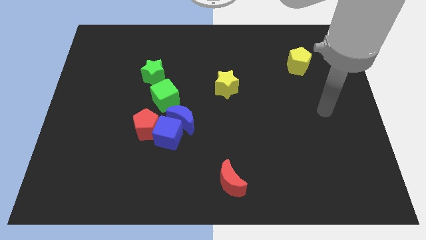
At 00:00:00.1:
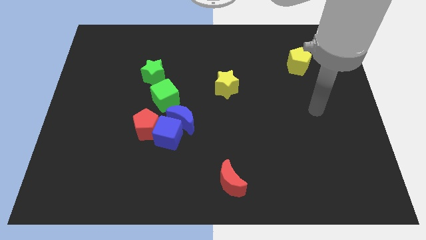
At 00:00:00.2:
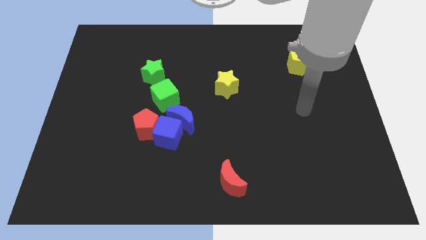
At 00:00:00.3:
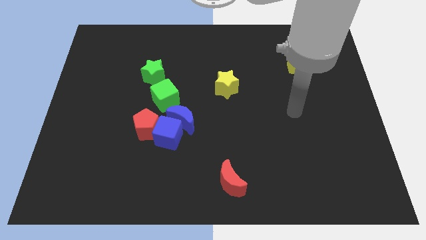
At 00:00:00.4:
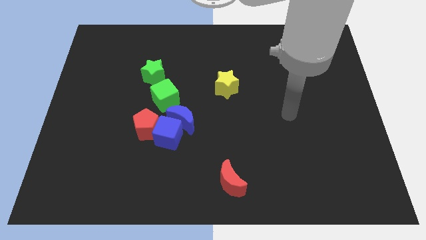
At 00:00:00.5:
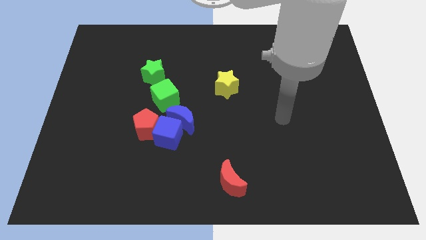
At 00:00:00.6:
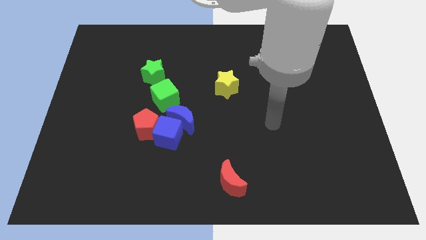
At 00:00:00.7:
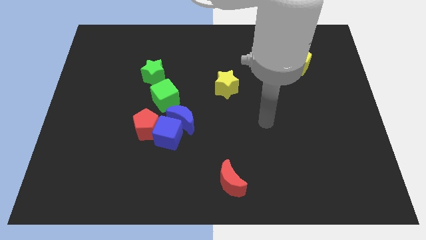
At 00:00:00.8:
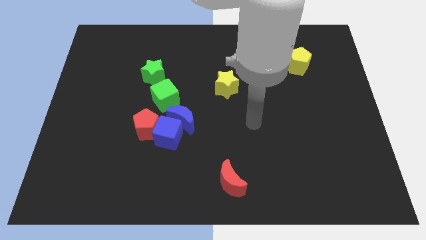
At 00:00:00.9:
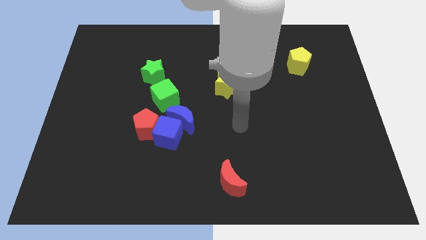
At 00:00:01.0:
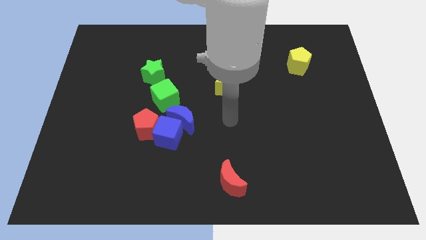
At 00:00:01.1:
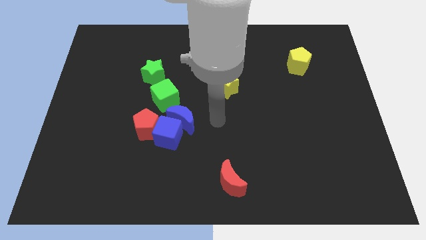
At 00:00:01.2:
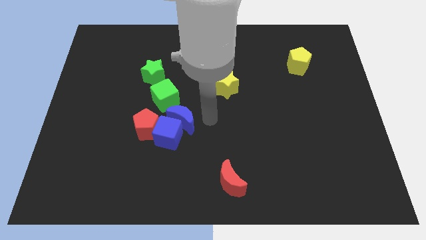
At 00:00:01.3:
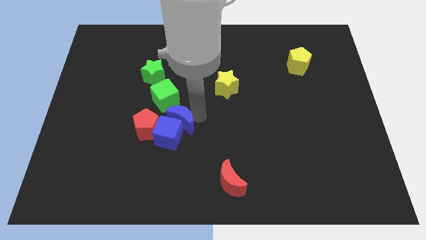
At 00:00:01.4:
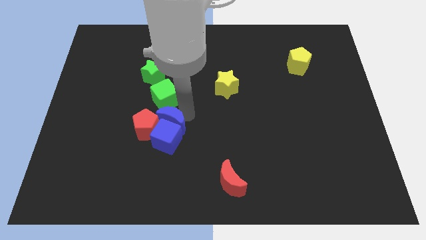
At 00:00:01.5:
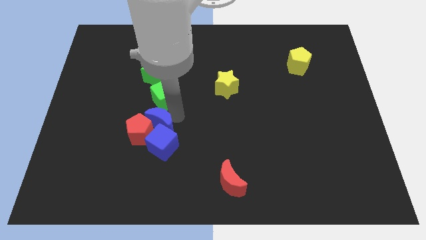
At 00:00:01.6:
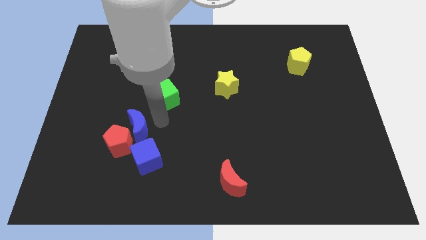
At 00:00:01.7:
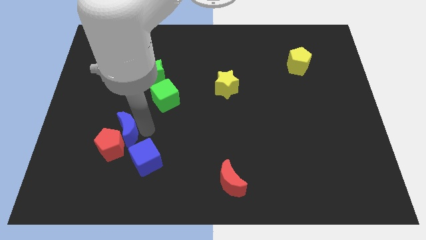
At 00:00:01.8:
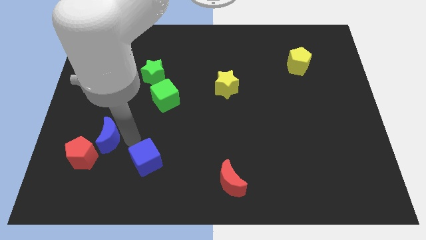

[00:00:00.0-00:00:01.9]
pull the blue cube apart from the blue moon and red pentagon

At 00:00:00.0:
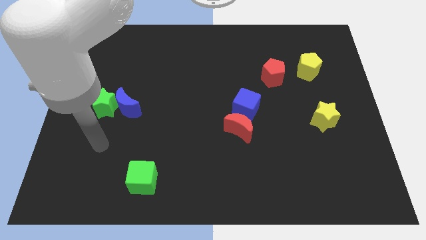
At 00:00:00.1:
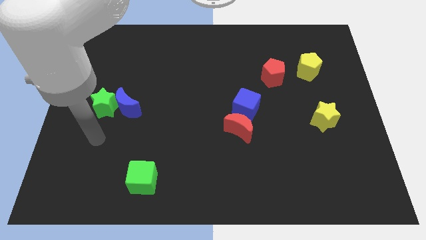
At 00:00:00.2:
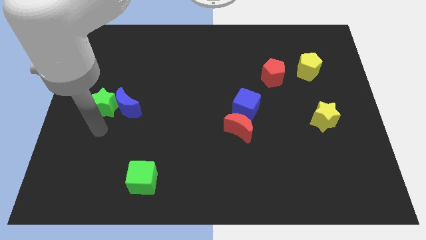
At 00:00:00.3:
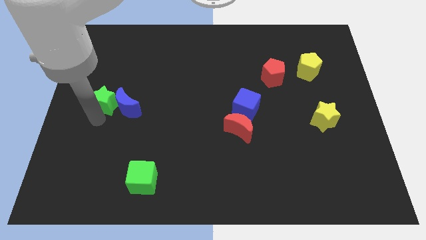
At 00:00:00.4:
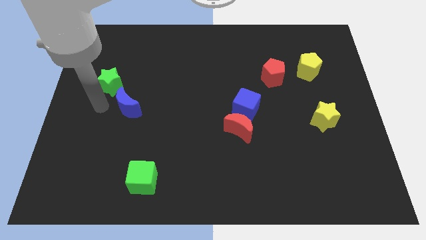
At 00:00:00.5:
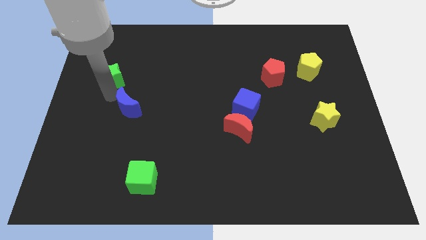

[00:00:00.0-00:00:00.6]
pull the blue moon apart from the green star

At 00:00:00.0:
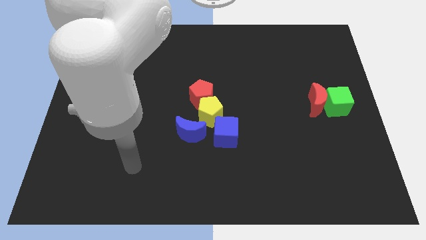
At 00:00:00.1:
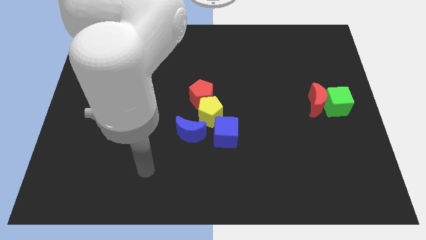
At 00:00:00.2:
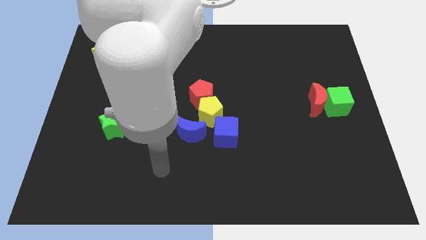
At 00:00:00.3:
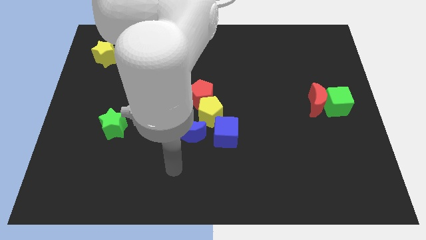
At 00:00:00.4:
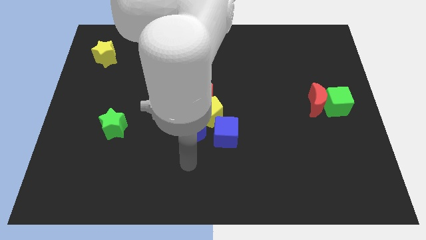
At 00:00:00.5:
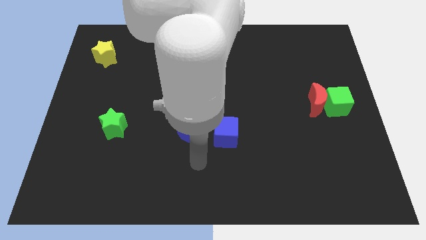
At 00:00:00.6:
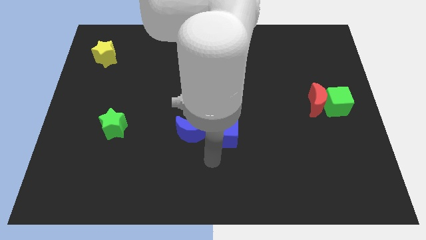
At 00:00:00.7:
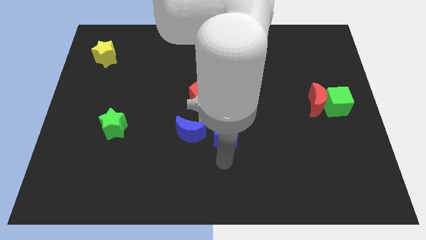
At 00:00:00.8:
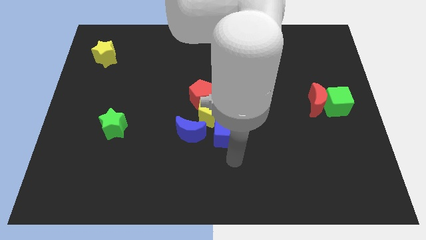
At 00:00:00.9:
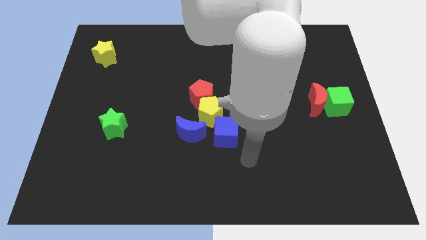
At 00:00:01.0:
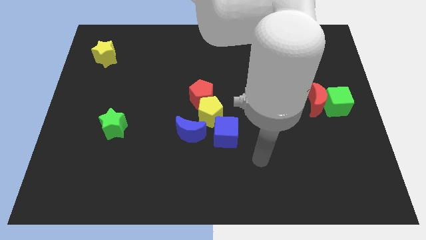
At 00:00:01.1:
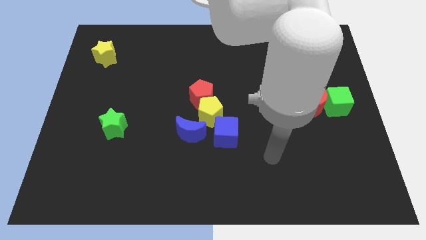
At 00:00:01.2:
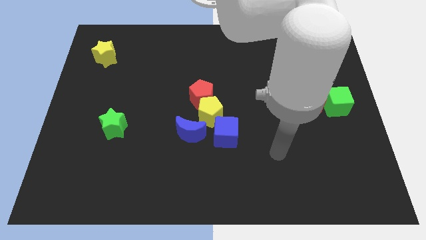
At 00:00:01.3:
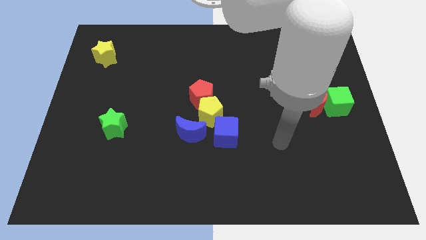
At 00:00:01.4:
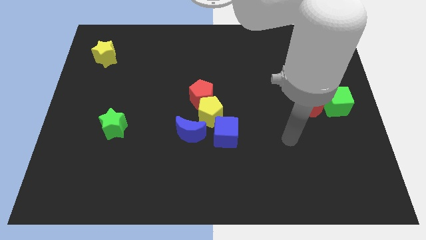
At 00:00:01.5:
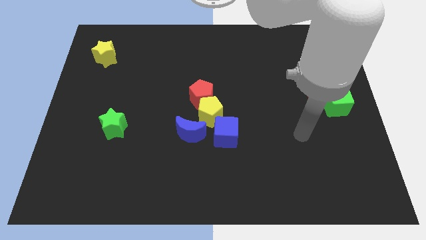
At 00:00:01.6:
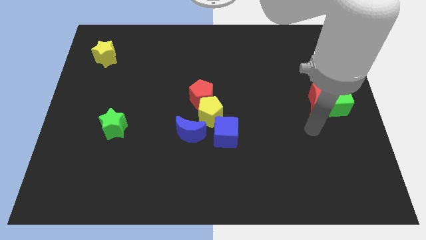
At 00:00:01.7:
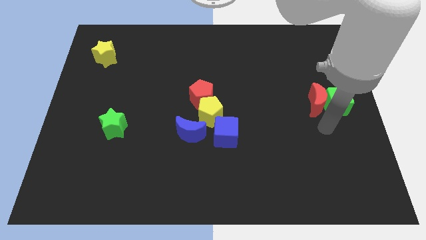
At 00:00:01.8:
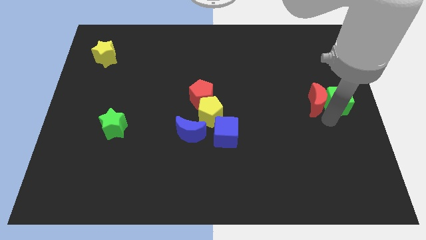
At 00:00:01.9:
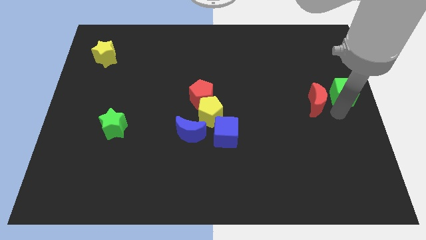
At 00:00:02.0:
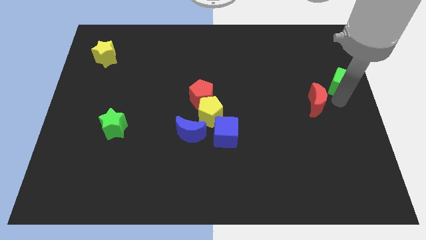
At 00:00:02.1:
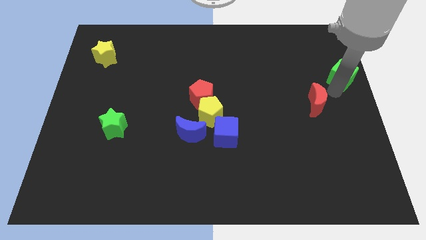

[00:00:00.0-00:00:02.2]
pull the red moon apart from the green cube

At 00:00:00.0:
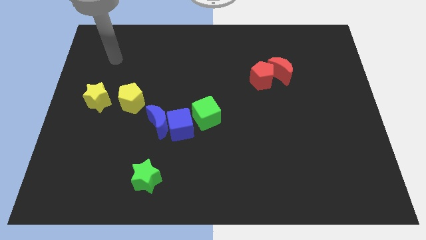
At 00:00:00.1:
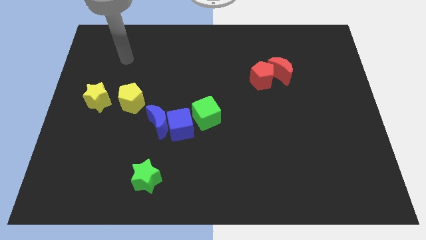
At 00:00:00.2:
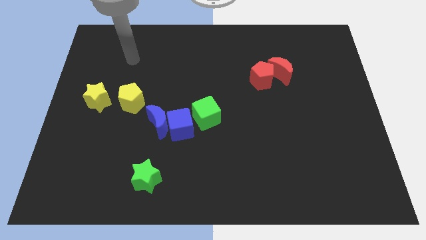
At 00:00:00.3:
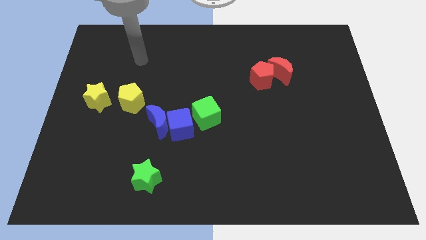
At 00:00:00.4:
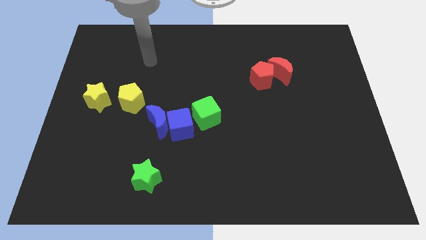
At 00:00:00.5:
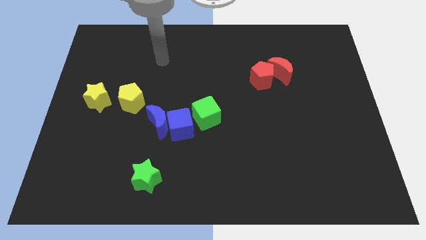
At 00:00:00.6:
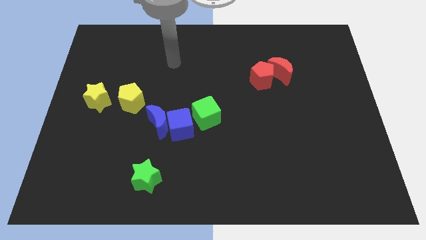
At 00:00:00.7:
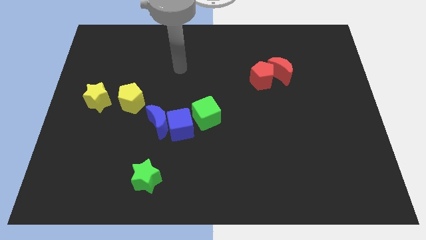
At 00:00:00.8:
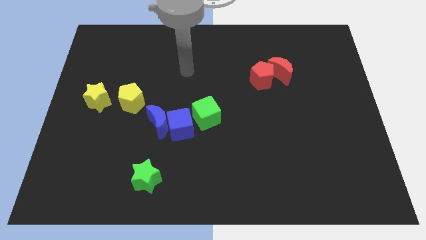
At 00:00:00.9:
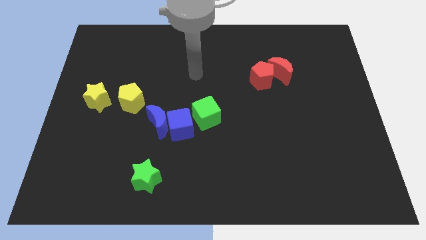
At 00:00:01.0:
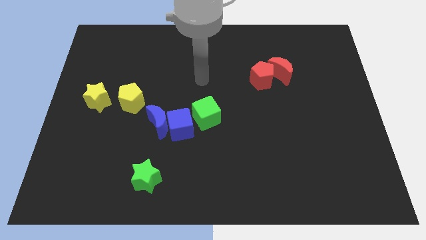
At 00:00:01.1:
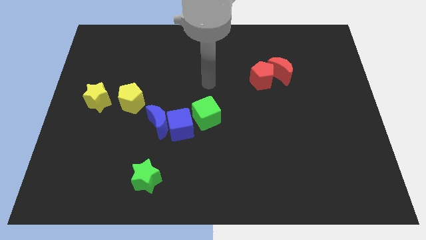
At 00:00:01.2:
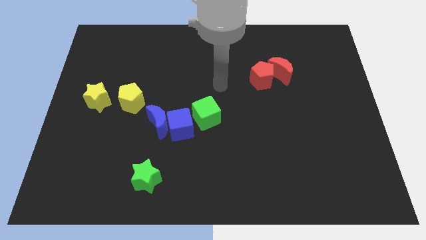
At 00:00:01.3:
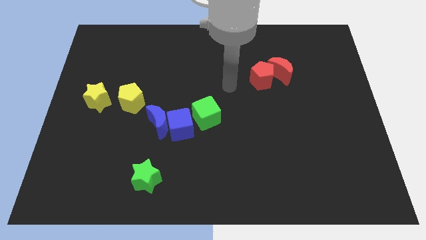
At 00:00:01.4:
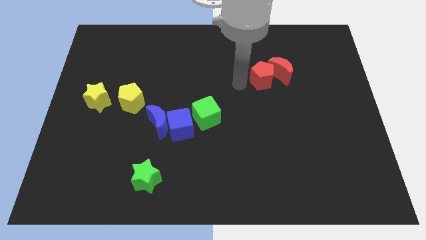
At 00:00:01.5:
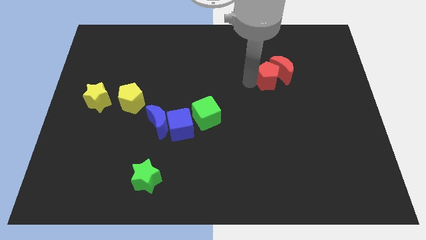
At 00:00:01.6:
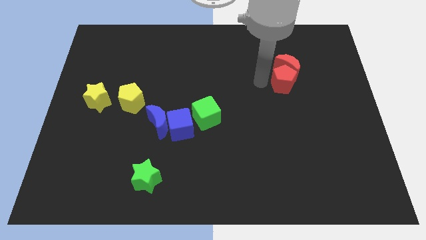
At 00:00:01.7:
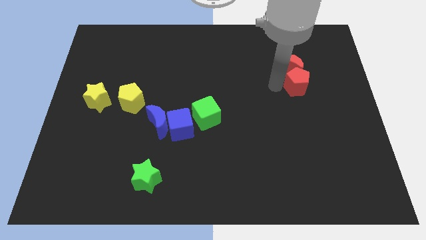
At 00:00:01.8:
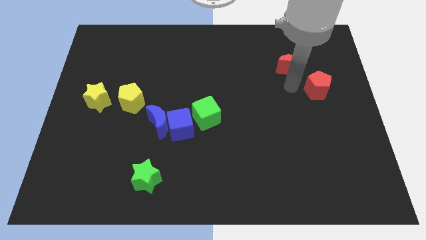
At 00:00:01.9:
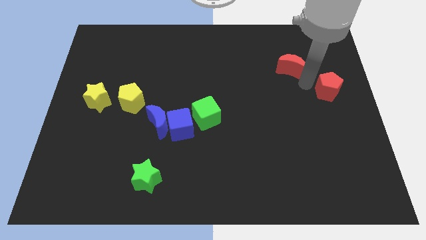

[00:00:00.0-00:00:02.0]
separate the red moon from the red pentagon

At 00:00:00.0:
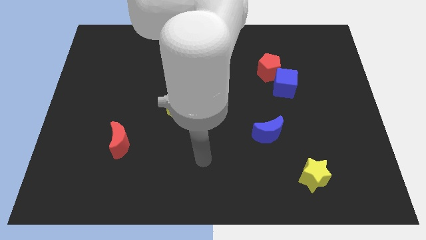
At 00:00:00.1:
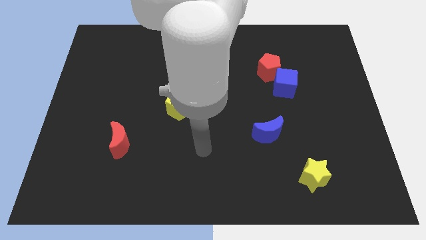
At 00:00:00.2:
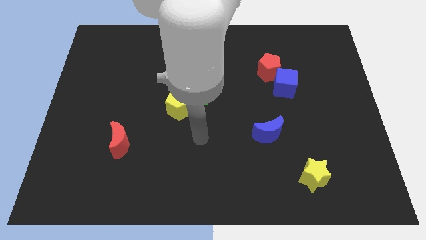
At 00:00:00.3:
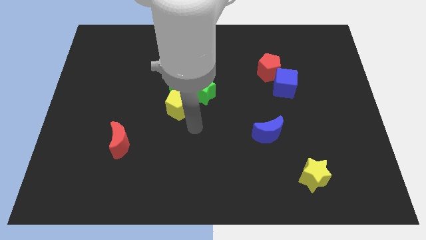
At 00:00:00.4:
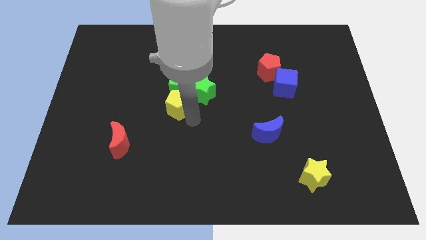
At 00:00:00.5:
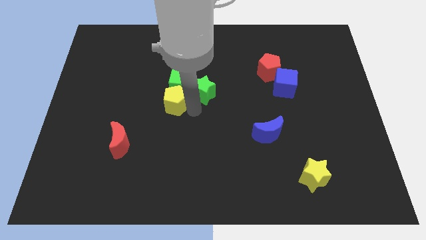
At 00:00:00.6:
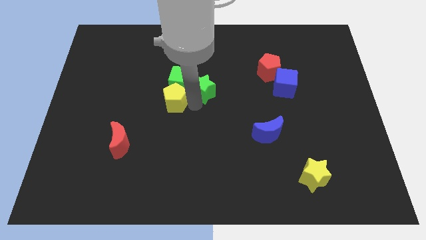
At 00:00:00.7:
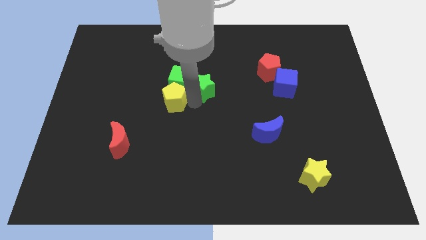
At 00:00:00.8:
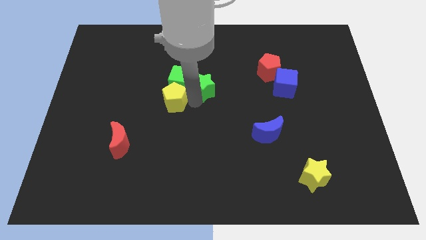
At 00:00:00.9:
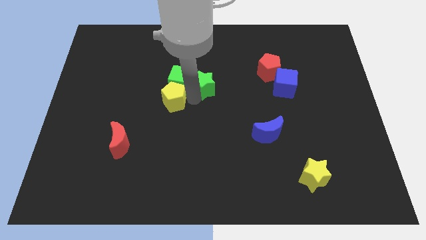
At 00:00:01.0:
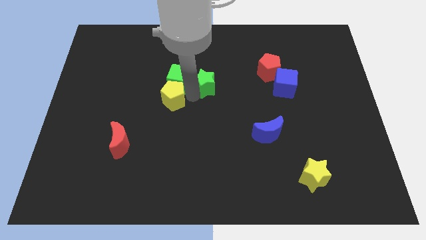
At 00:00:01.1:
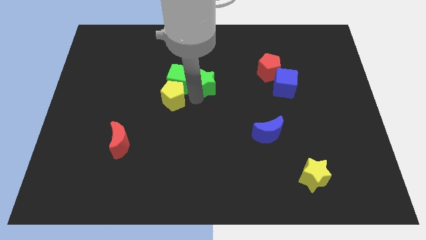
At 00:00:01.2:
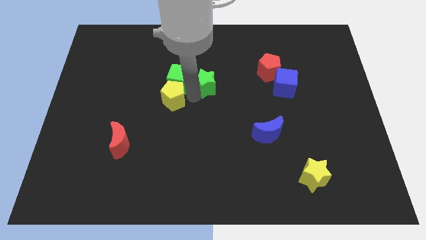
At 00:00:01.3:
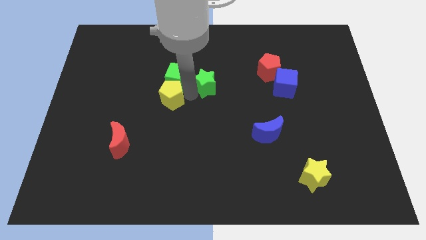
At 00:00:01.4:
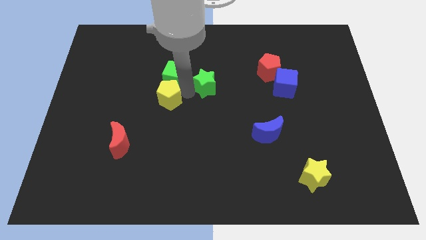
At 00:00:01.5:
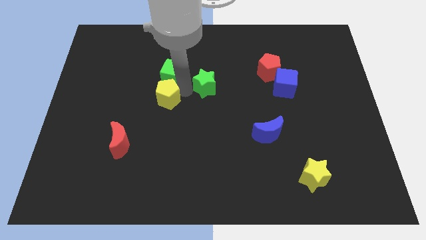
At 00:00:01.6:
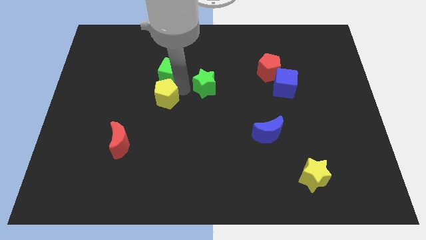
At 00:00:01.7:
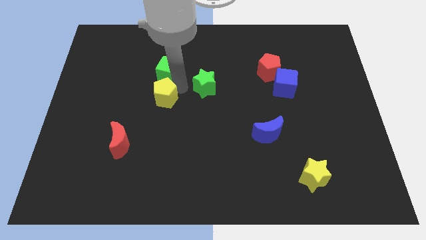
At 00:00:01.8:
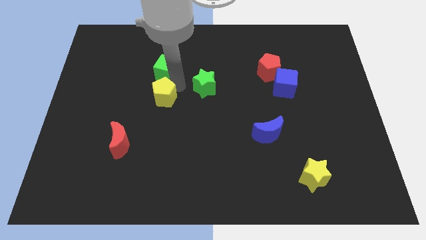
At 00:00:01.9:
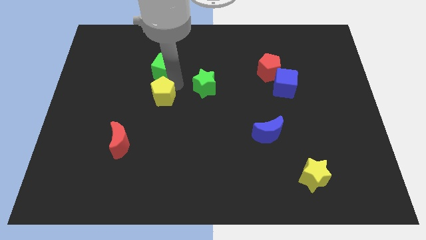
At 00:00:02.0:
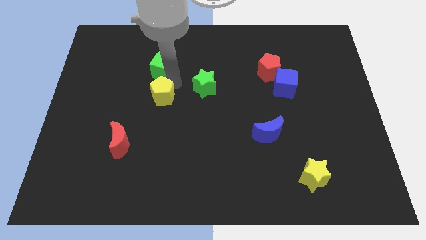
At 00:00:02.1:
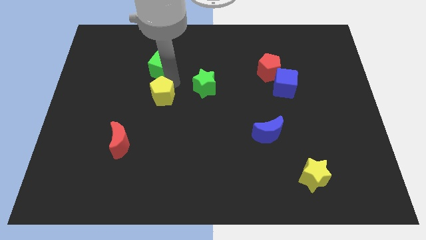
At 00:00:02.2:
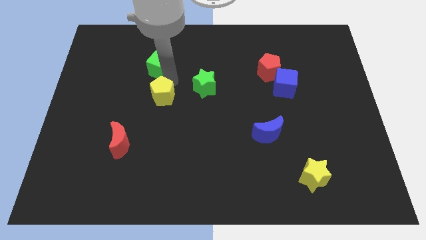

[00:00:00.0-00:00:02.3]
separate the green cube from the green star and yellow pentagon
